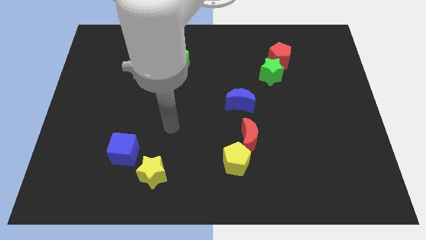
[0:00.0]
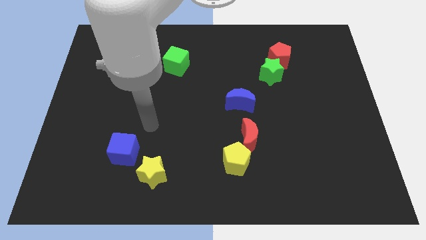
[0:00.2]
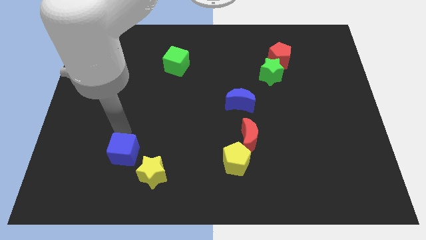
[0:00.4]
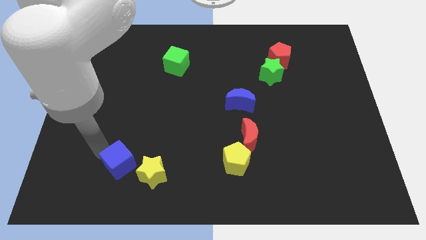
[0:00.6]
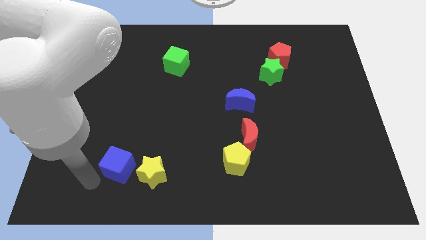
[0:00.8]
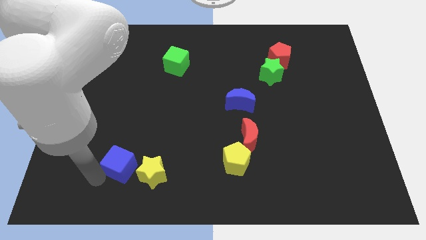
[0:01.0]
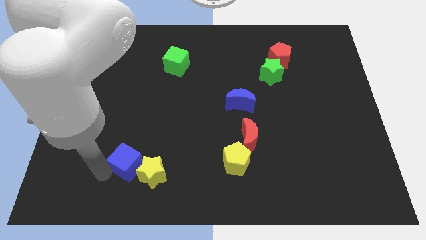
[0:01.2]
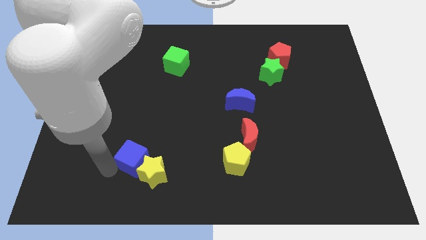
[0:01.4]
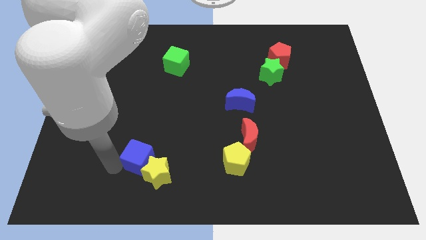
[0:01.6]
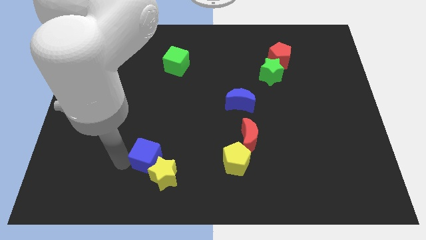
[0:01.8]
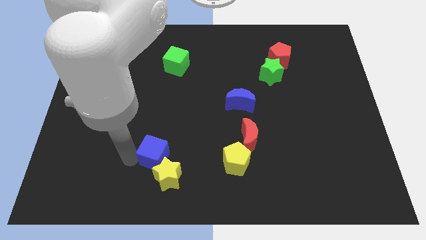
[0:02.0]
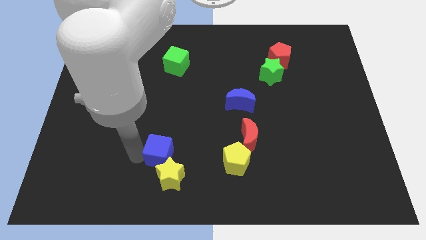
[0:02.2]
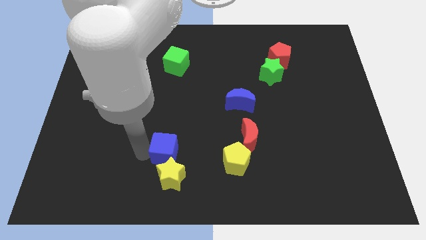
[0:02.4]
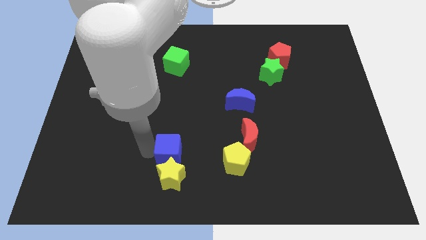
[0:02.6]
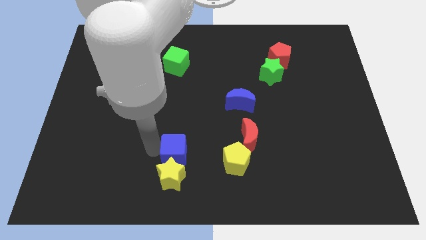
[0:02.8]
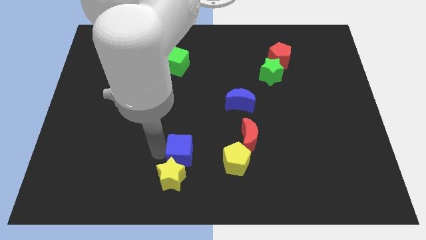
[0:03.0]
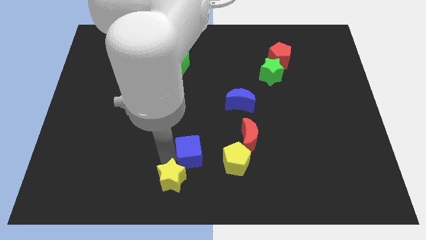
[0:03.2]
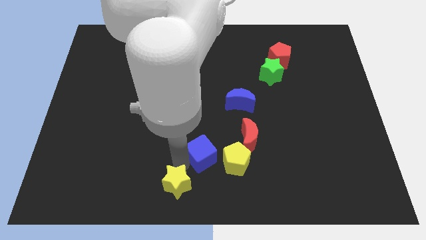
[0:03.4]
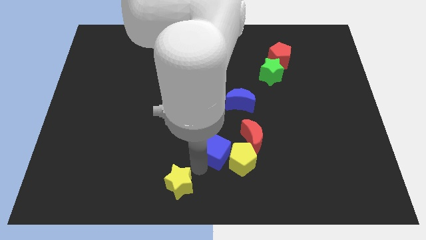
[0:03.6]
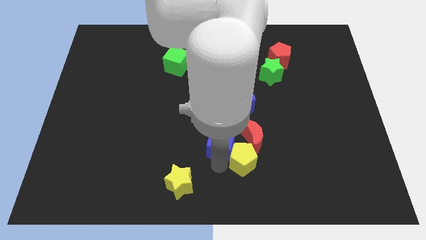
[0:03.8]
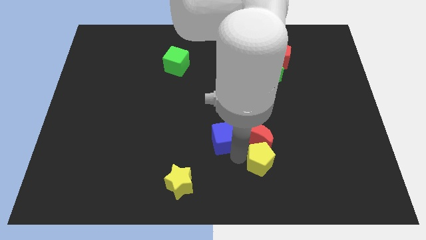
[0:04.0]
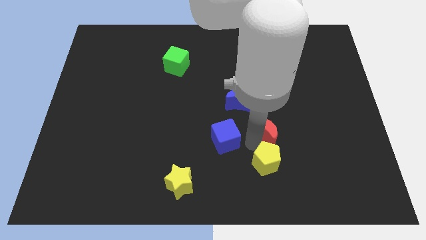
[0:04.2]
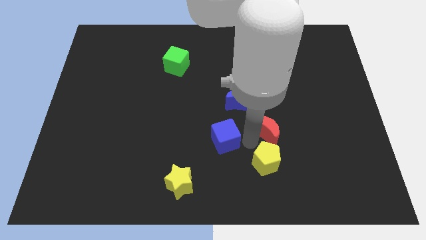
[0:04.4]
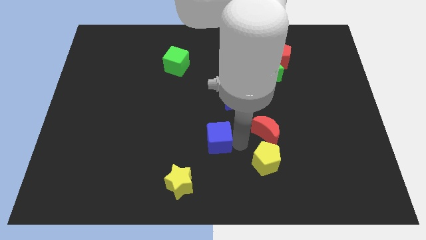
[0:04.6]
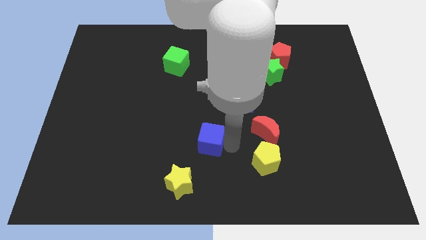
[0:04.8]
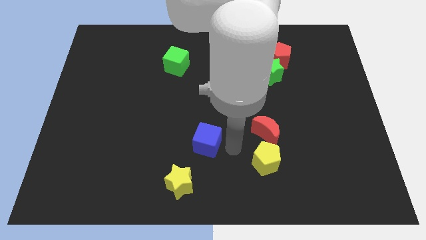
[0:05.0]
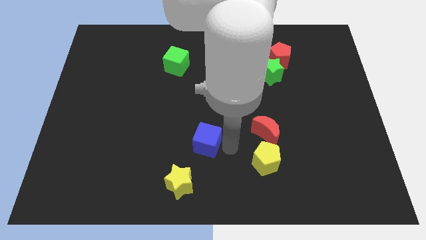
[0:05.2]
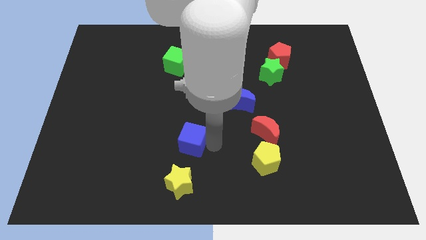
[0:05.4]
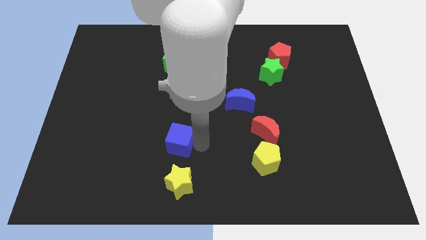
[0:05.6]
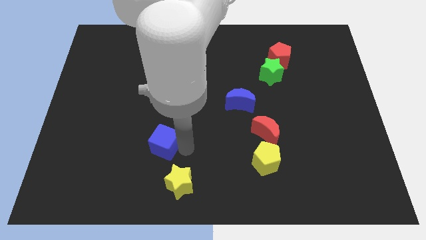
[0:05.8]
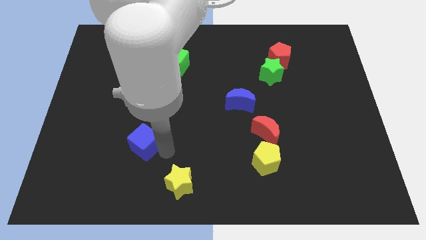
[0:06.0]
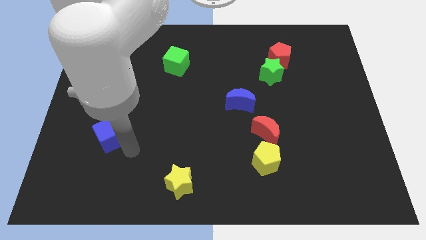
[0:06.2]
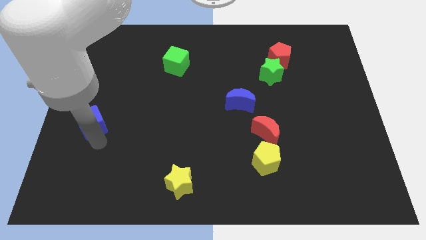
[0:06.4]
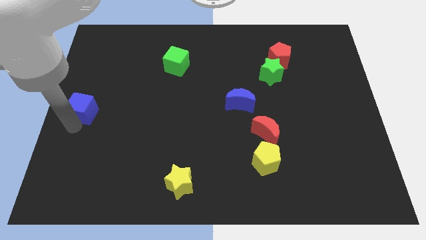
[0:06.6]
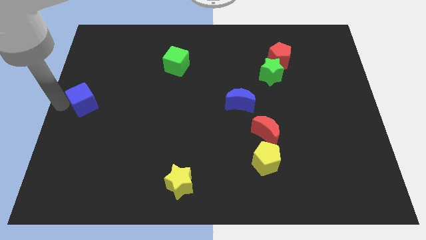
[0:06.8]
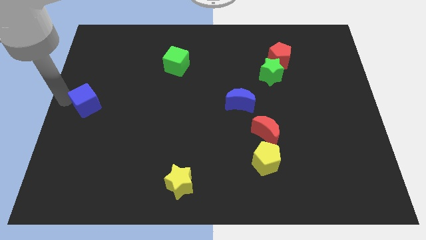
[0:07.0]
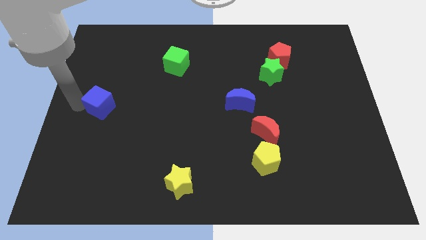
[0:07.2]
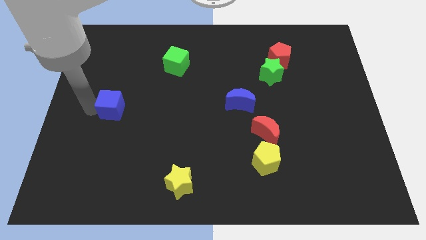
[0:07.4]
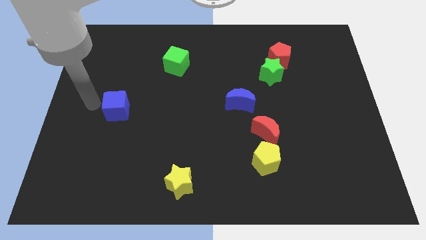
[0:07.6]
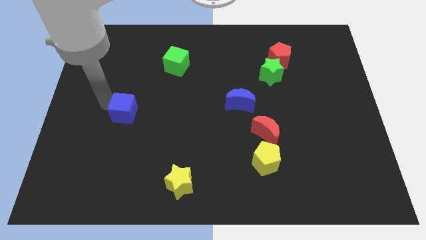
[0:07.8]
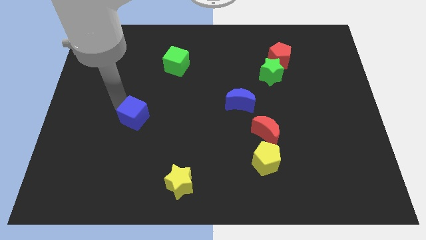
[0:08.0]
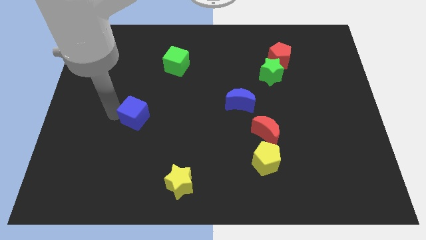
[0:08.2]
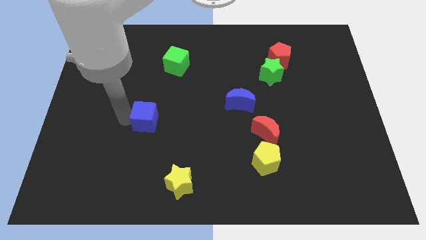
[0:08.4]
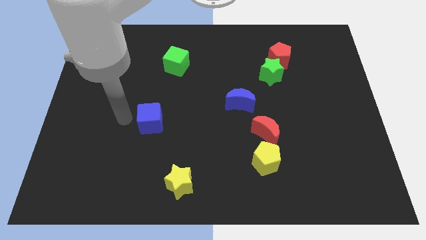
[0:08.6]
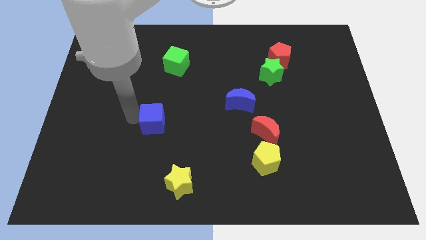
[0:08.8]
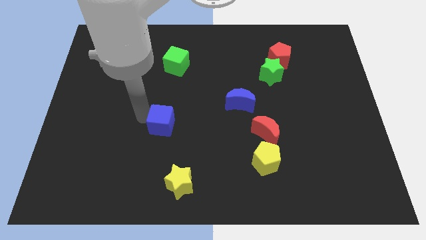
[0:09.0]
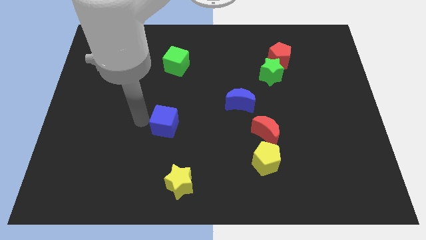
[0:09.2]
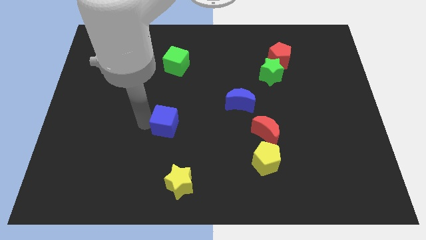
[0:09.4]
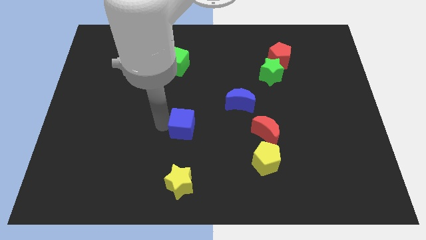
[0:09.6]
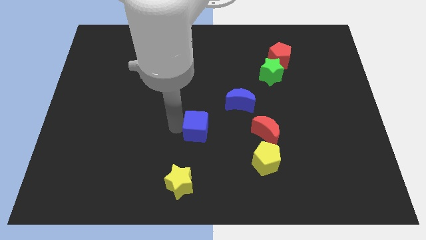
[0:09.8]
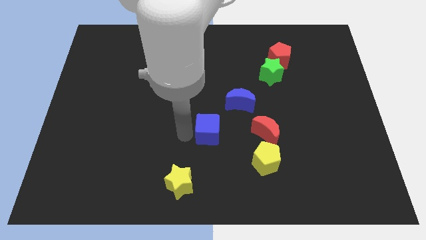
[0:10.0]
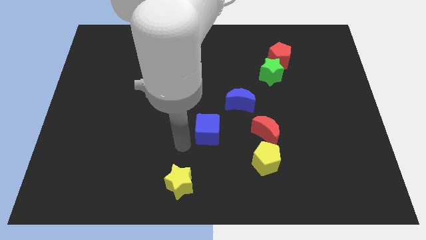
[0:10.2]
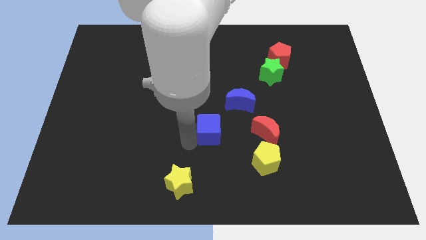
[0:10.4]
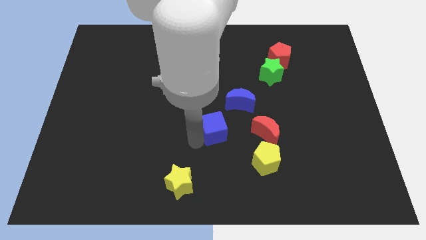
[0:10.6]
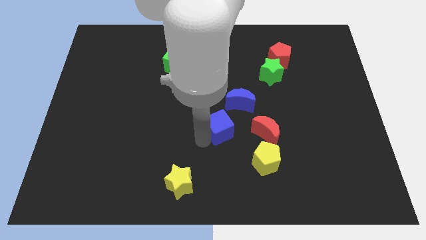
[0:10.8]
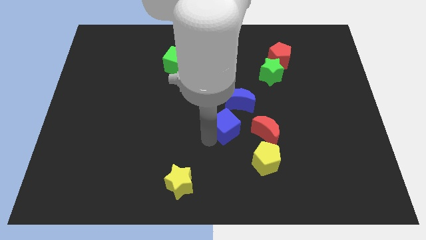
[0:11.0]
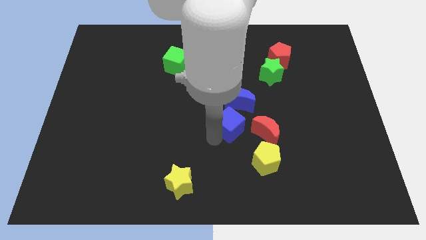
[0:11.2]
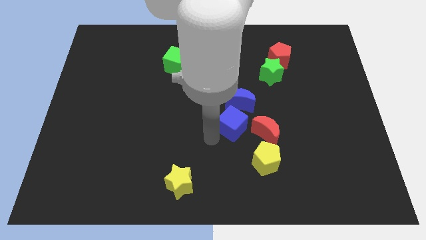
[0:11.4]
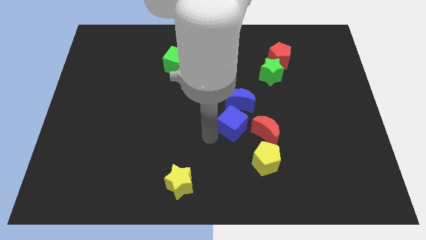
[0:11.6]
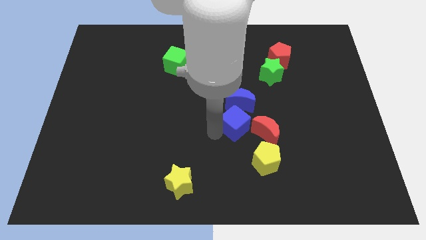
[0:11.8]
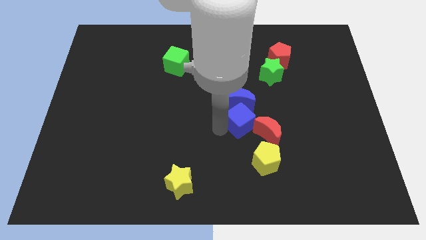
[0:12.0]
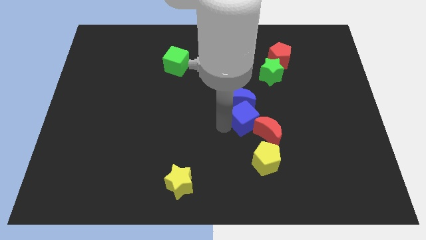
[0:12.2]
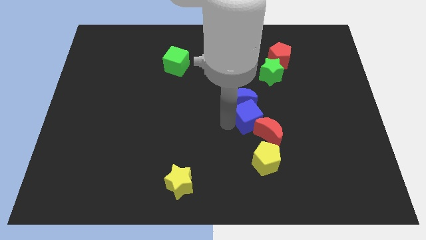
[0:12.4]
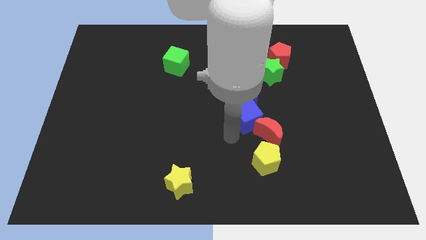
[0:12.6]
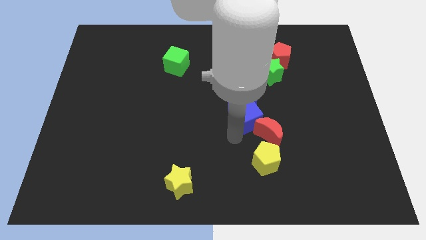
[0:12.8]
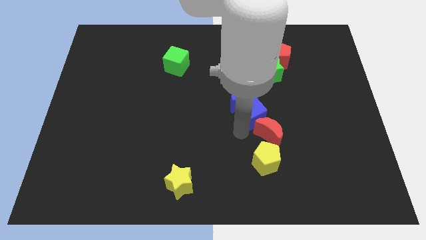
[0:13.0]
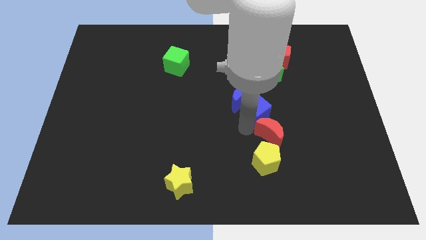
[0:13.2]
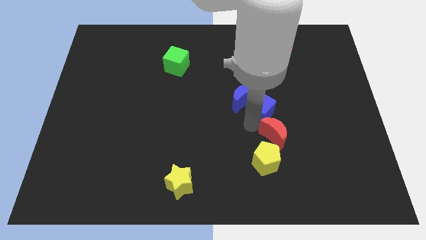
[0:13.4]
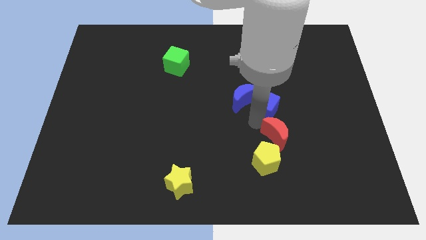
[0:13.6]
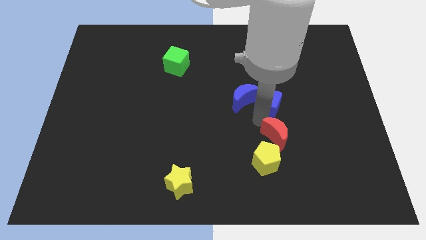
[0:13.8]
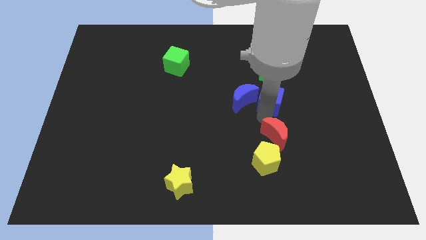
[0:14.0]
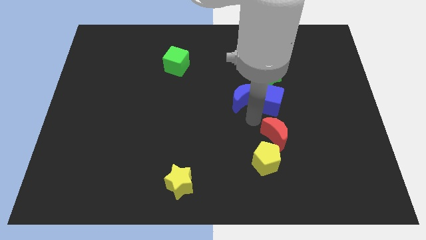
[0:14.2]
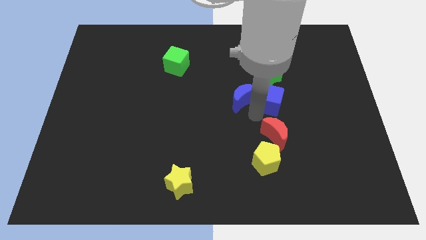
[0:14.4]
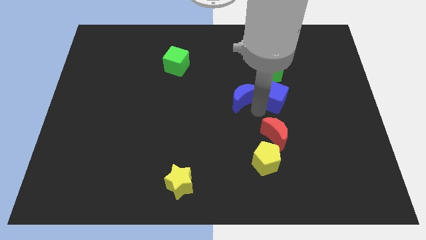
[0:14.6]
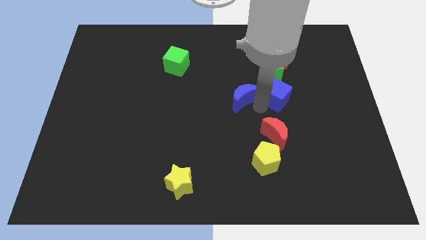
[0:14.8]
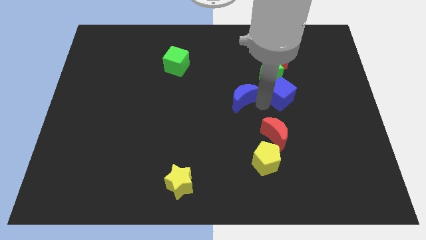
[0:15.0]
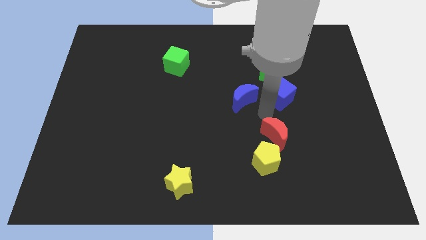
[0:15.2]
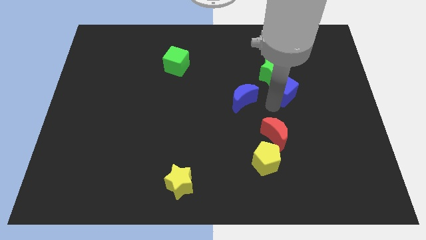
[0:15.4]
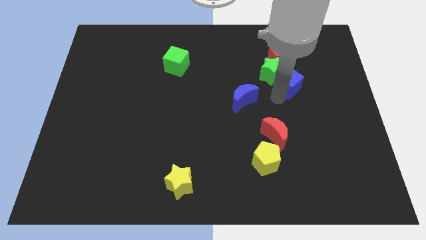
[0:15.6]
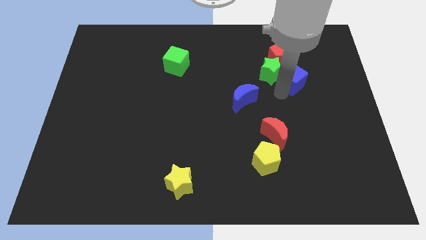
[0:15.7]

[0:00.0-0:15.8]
push the blue cube to the bottom right of the red pentagon
